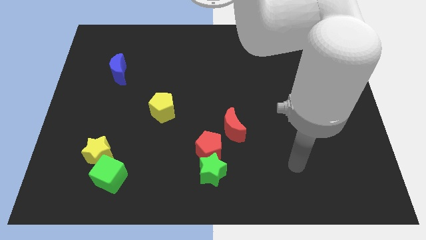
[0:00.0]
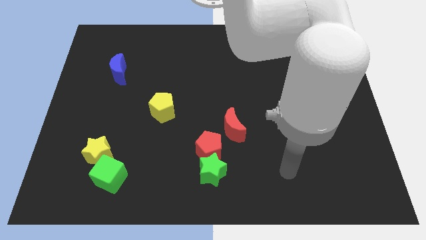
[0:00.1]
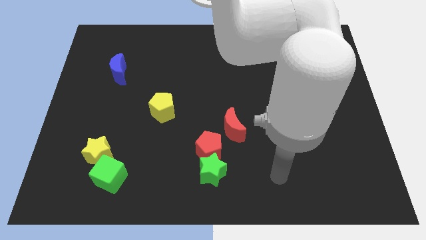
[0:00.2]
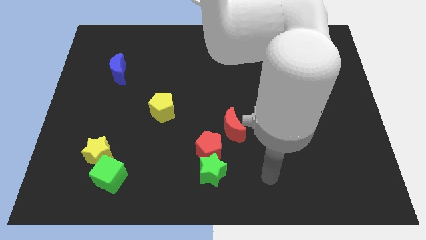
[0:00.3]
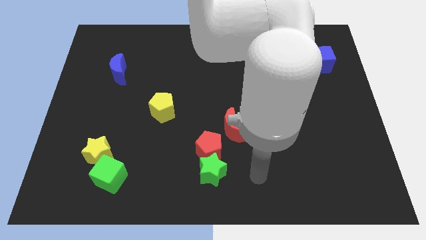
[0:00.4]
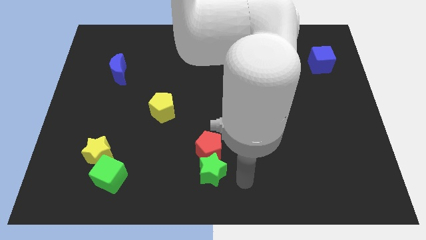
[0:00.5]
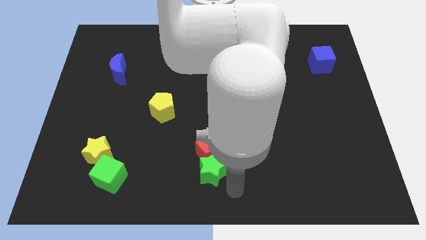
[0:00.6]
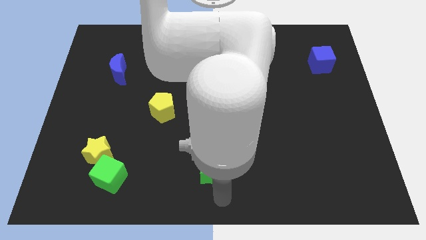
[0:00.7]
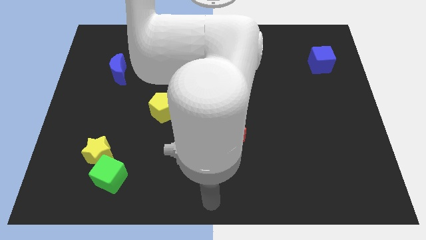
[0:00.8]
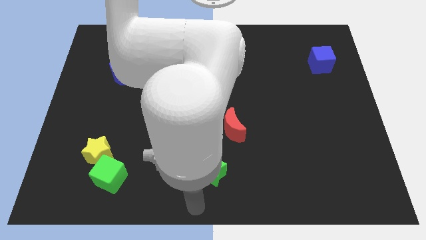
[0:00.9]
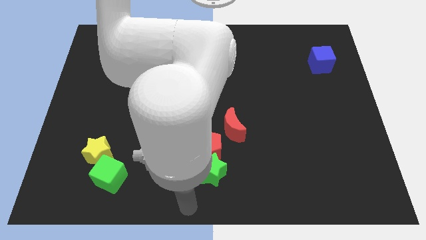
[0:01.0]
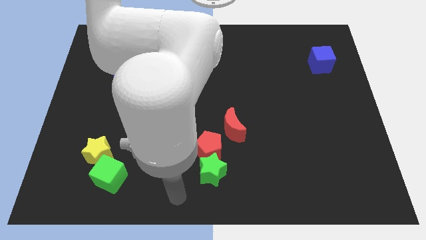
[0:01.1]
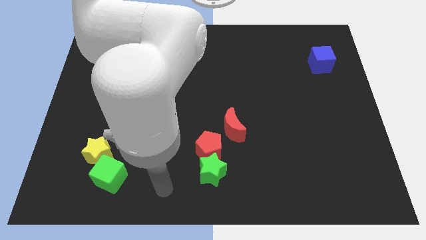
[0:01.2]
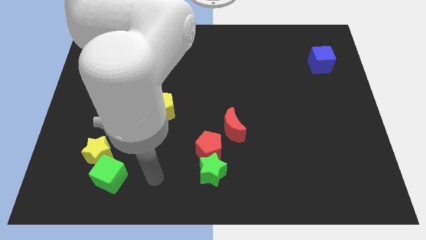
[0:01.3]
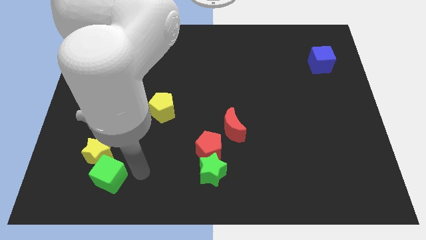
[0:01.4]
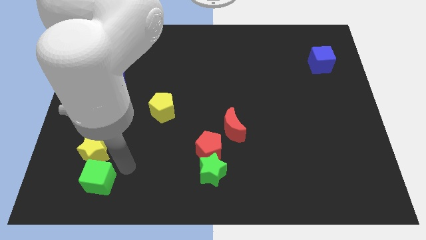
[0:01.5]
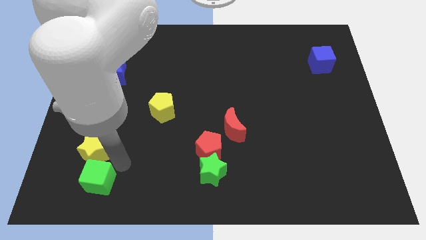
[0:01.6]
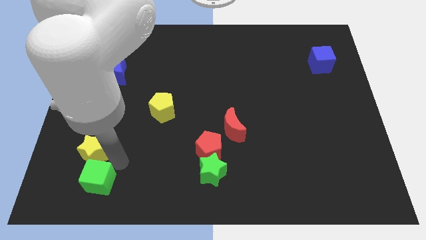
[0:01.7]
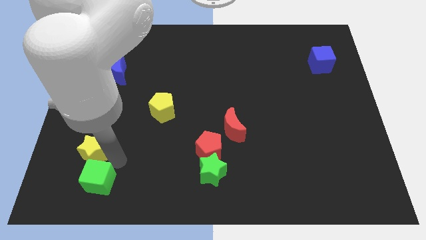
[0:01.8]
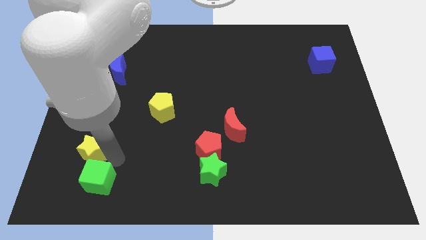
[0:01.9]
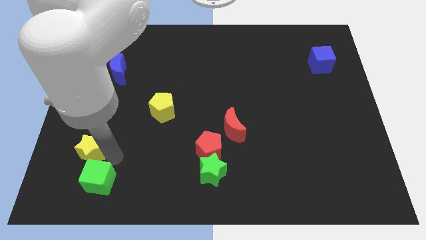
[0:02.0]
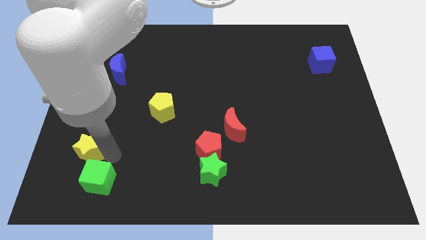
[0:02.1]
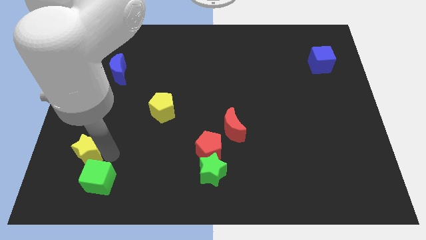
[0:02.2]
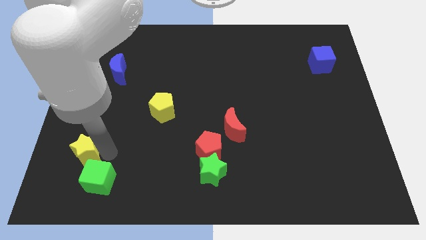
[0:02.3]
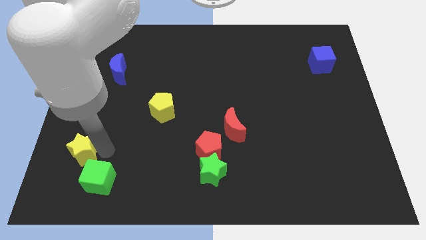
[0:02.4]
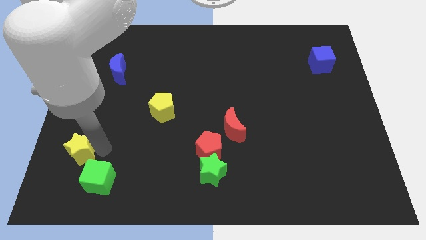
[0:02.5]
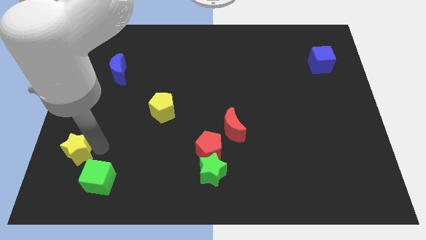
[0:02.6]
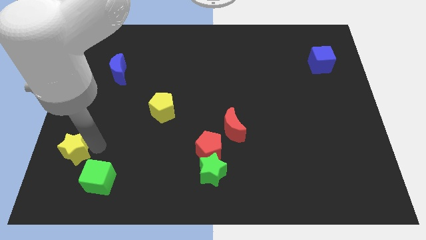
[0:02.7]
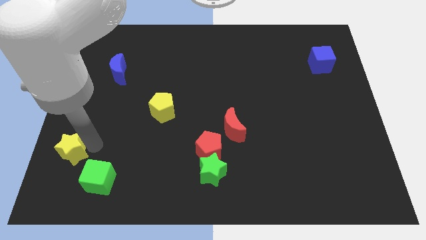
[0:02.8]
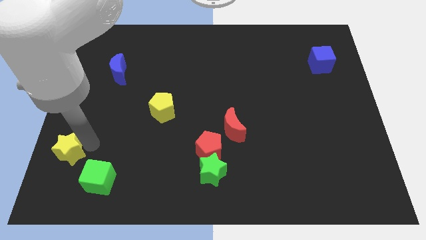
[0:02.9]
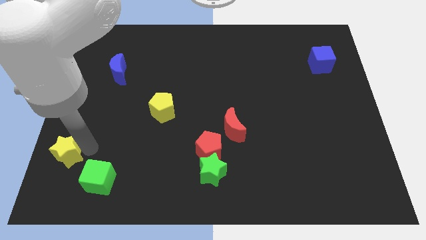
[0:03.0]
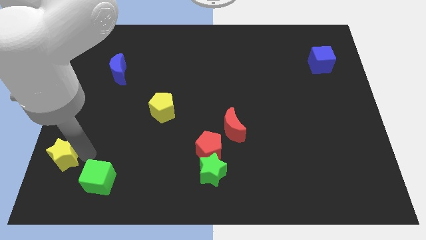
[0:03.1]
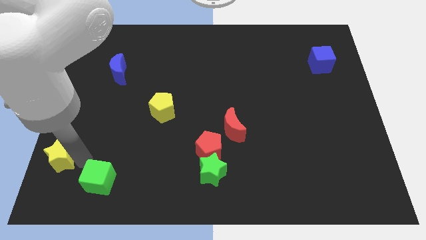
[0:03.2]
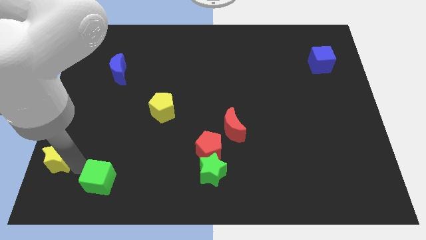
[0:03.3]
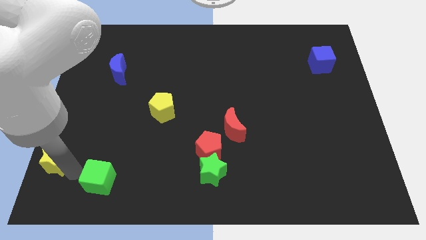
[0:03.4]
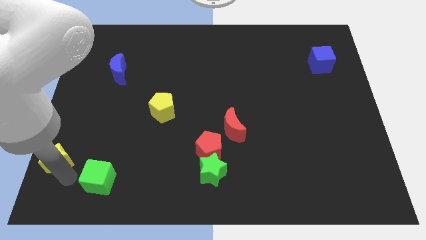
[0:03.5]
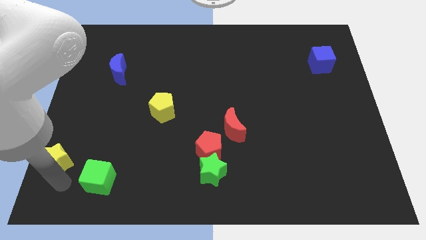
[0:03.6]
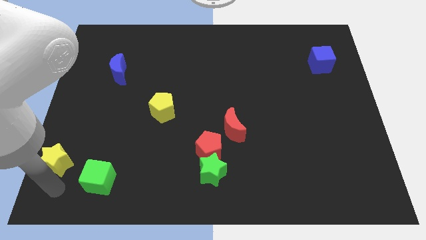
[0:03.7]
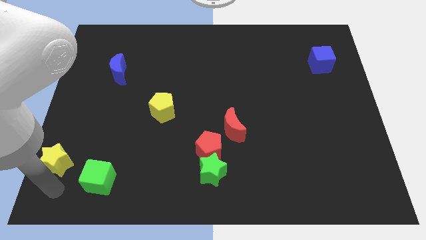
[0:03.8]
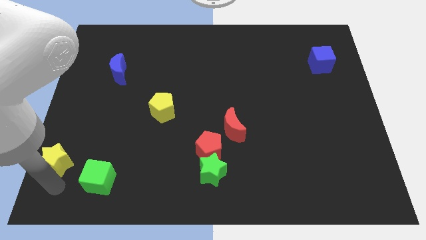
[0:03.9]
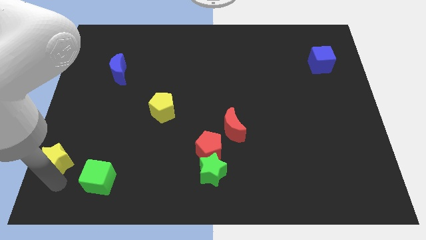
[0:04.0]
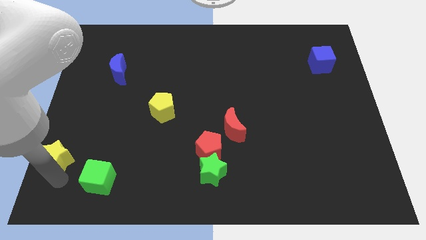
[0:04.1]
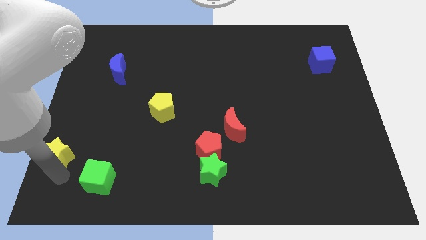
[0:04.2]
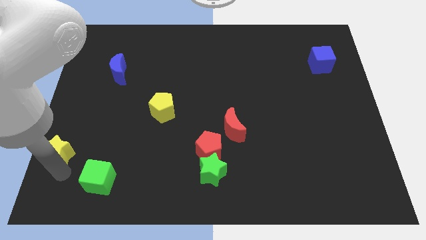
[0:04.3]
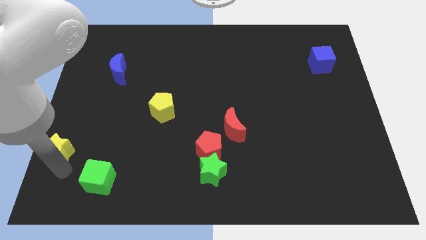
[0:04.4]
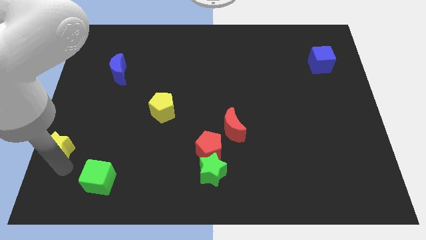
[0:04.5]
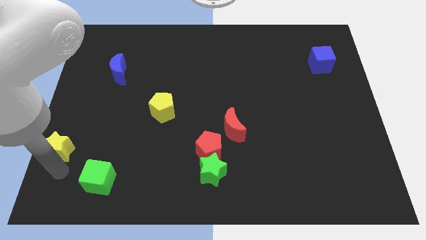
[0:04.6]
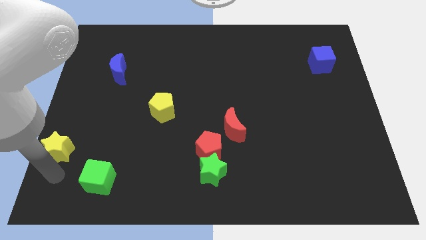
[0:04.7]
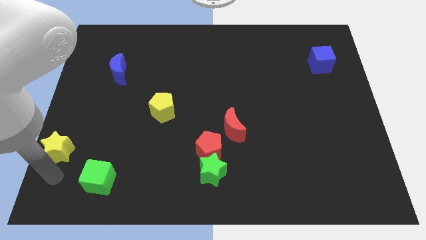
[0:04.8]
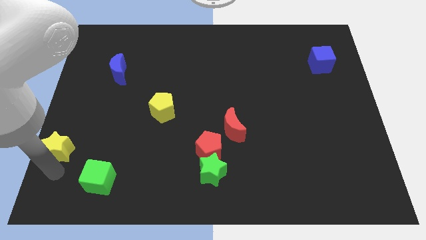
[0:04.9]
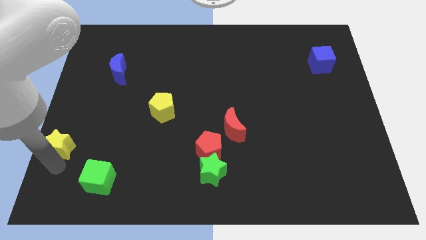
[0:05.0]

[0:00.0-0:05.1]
move the yellow star to the left side of the board

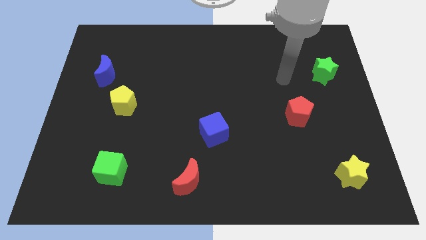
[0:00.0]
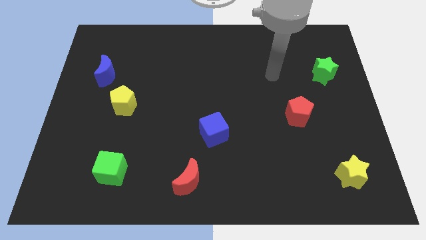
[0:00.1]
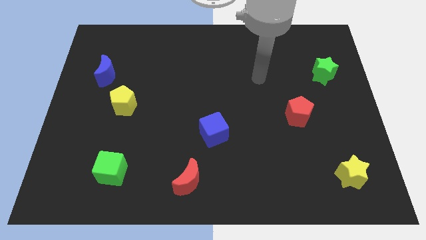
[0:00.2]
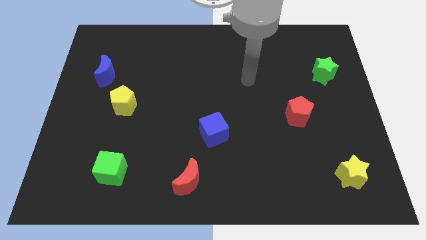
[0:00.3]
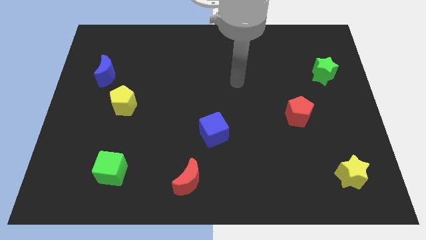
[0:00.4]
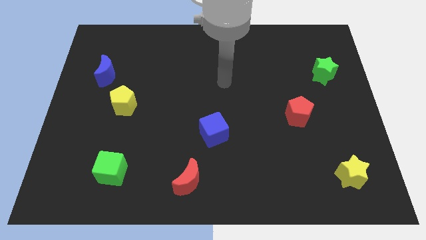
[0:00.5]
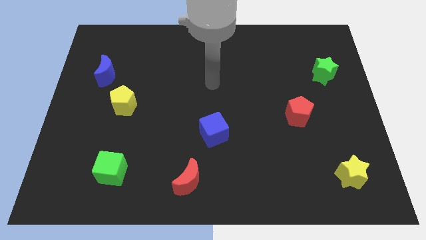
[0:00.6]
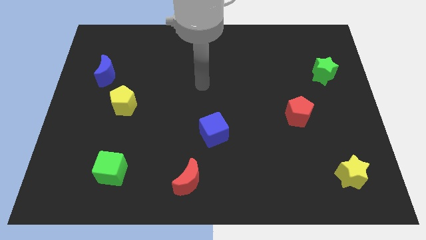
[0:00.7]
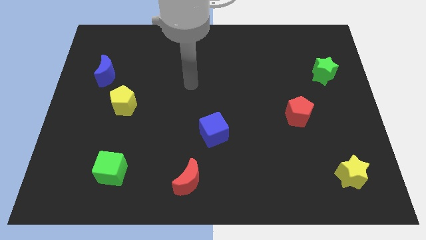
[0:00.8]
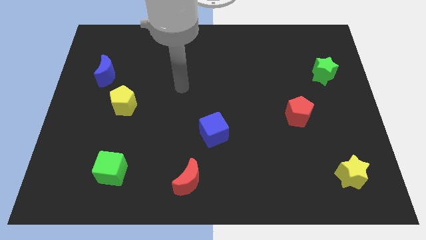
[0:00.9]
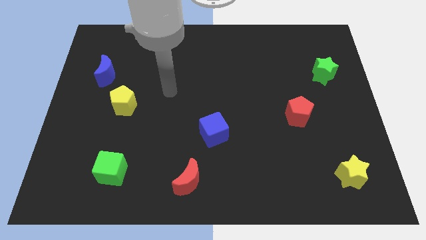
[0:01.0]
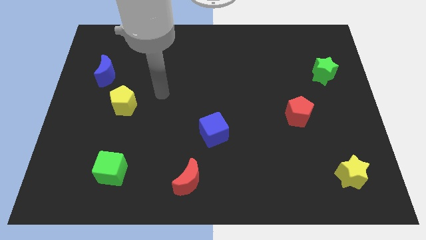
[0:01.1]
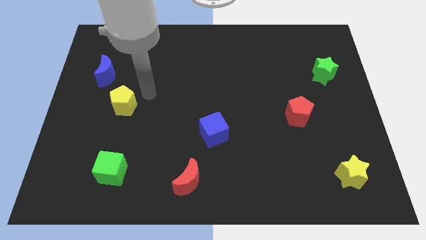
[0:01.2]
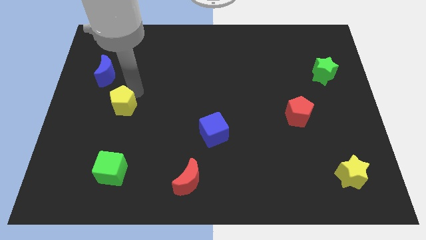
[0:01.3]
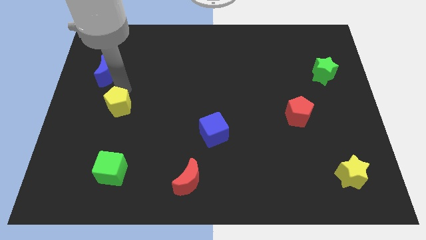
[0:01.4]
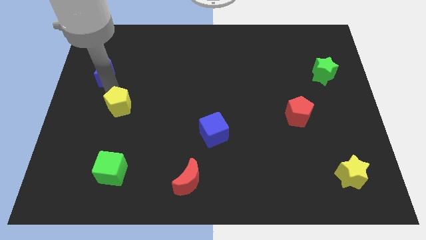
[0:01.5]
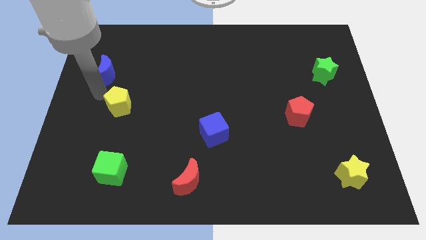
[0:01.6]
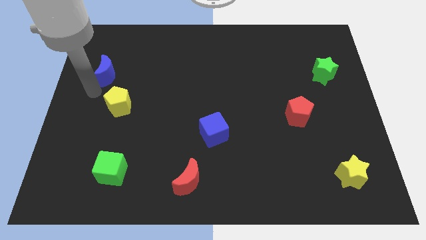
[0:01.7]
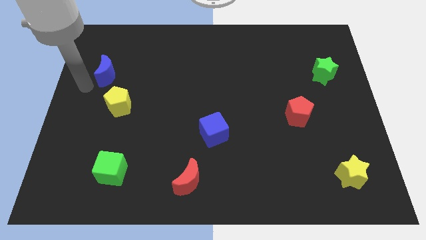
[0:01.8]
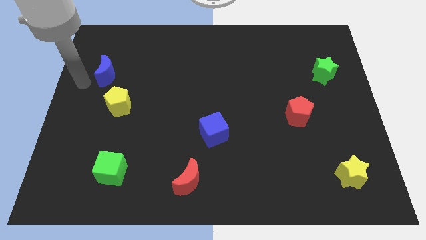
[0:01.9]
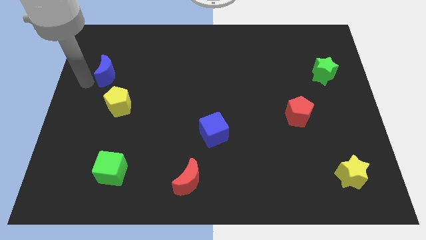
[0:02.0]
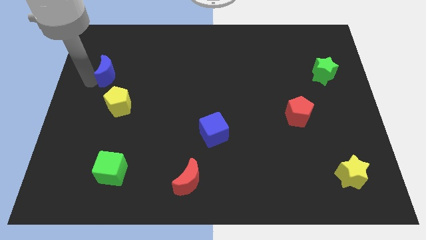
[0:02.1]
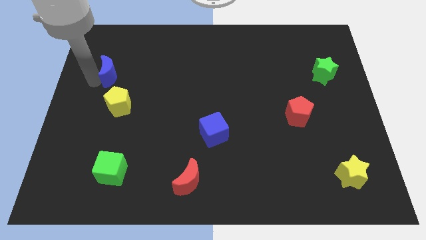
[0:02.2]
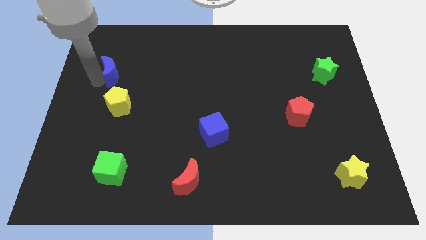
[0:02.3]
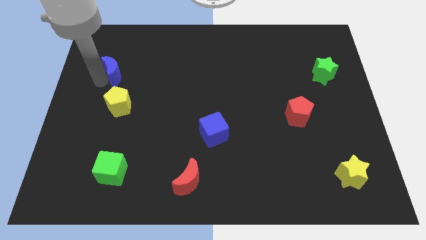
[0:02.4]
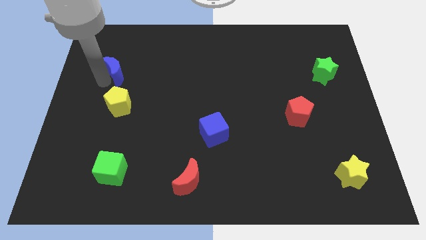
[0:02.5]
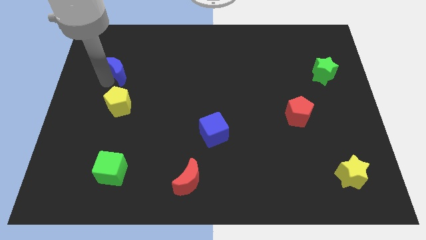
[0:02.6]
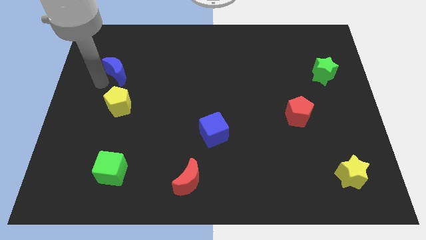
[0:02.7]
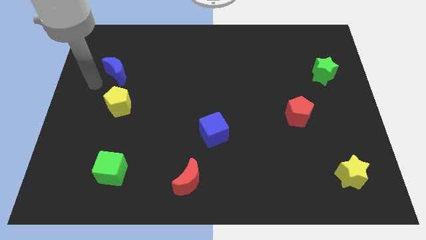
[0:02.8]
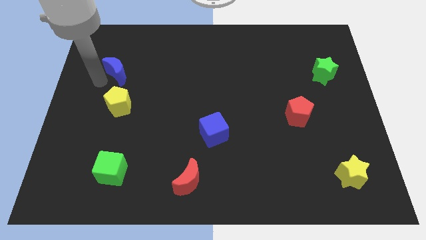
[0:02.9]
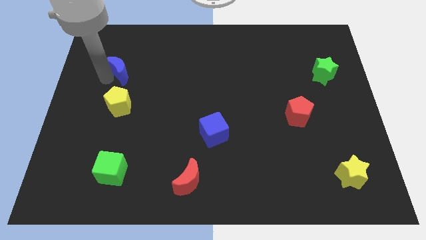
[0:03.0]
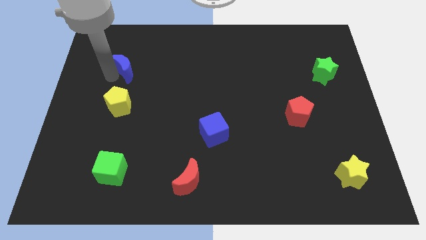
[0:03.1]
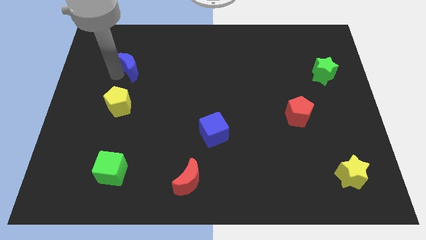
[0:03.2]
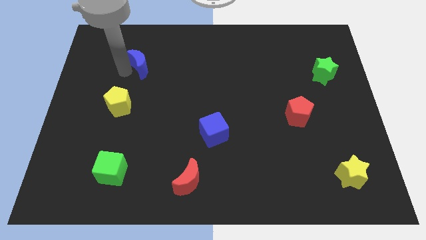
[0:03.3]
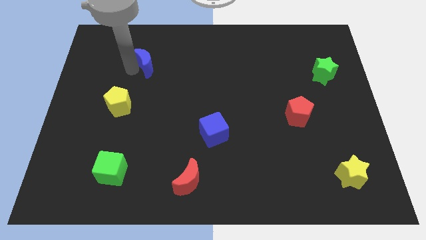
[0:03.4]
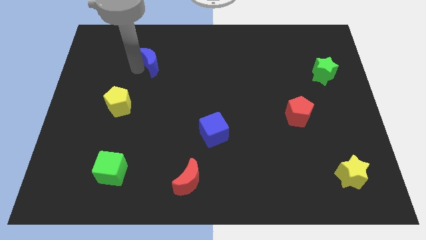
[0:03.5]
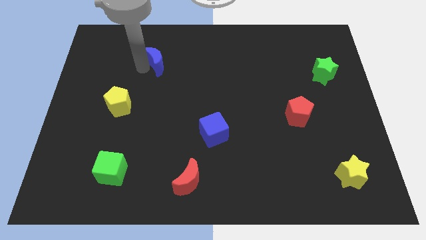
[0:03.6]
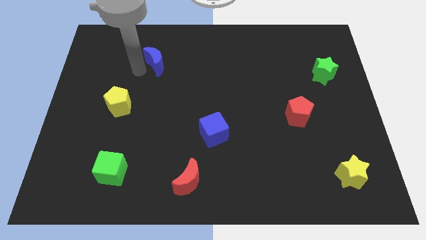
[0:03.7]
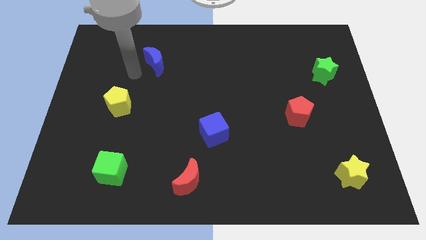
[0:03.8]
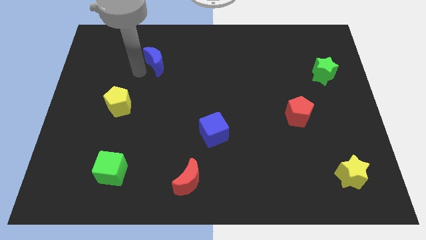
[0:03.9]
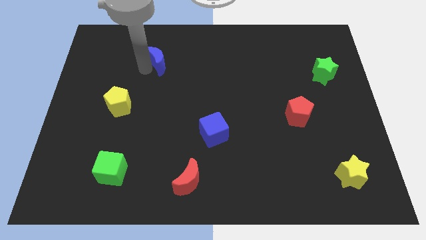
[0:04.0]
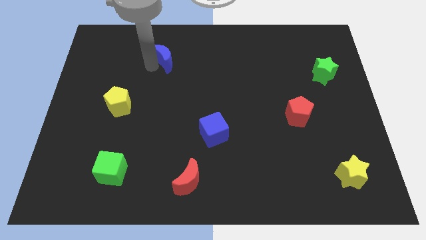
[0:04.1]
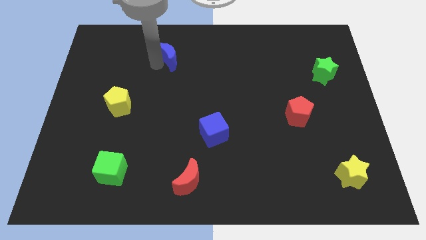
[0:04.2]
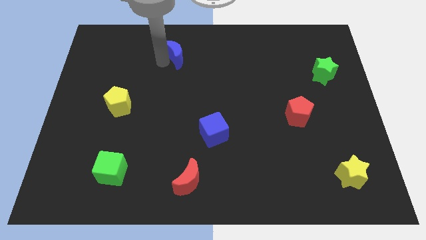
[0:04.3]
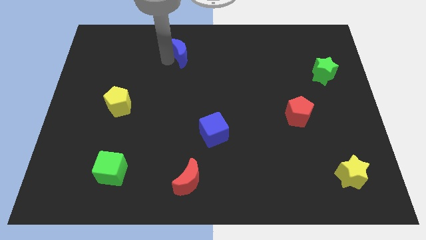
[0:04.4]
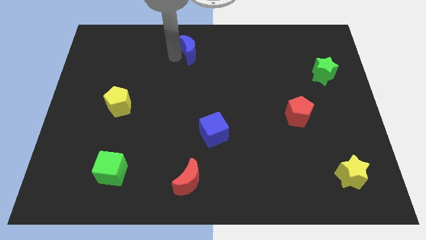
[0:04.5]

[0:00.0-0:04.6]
put the blue moon to the towards your base
